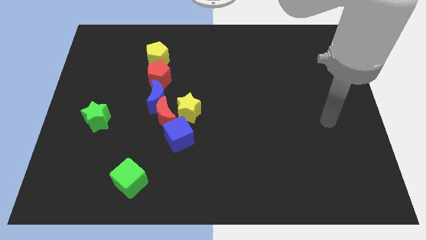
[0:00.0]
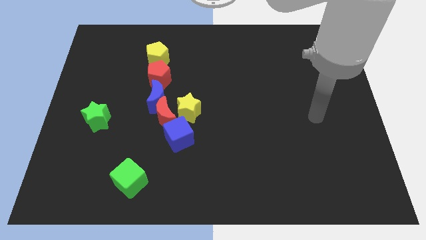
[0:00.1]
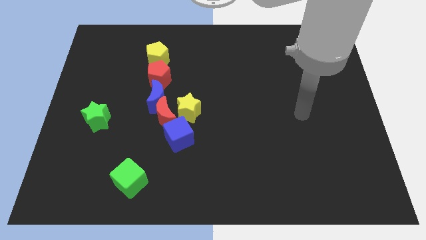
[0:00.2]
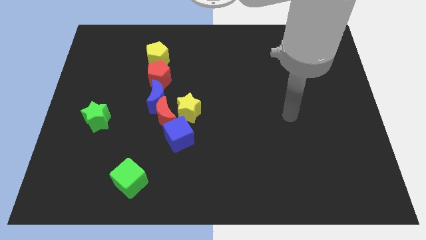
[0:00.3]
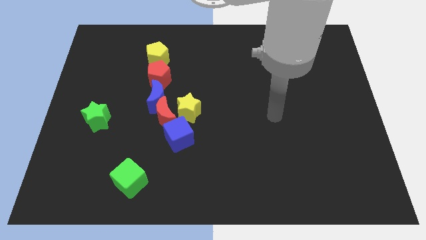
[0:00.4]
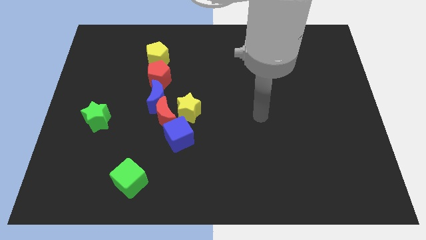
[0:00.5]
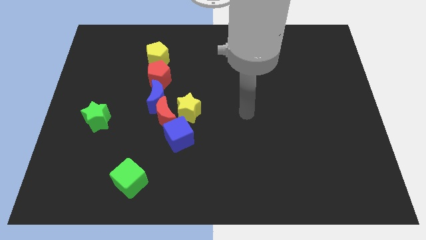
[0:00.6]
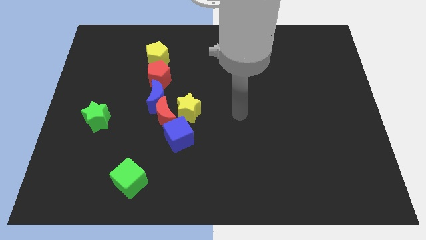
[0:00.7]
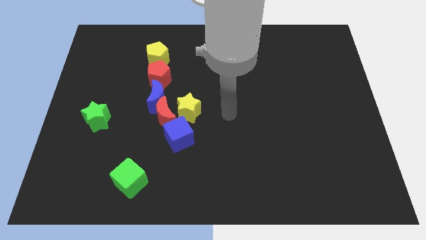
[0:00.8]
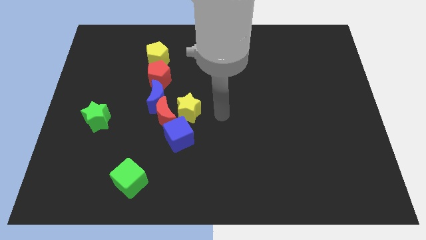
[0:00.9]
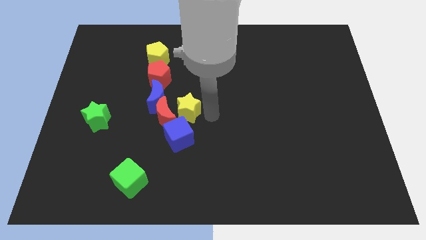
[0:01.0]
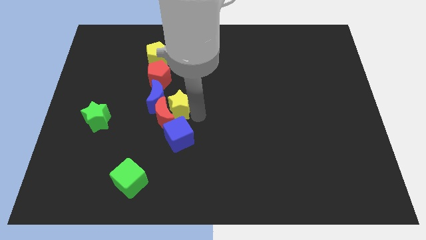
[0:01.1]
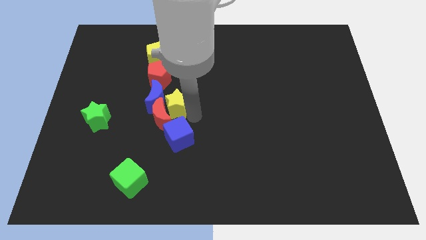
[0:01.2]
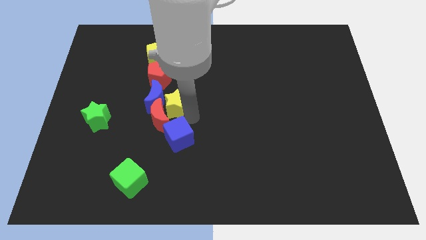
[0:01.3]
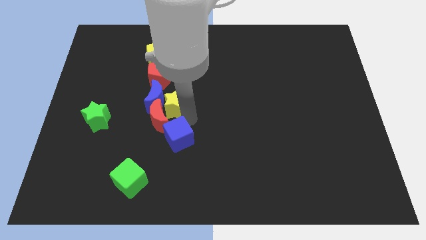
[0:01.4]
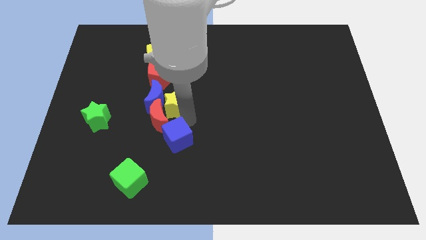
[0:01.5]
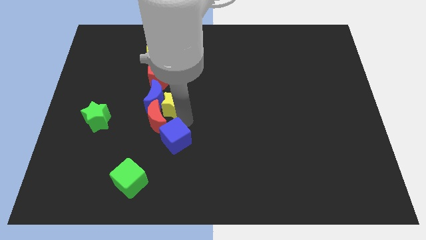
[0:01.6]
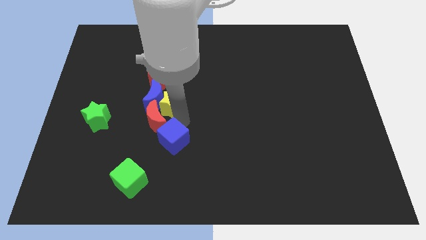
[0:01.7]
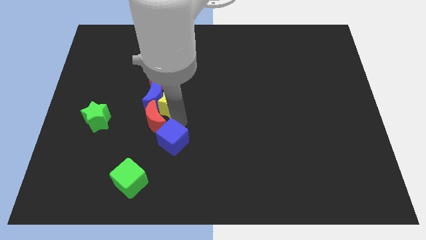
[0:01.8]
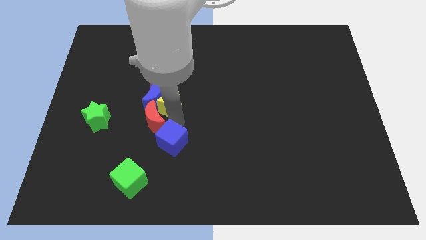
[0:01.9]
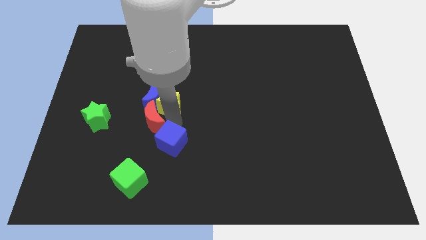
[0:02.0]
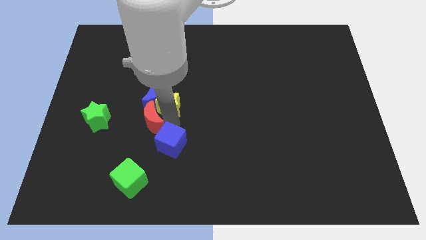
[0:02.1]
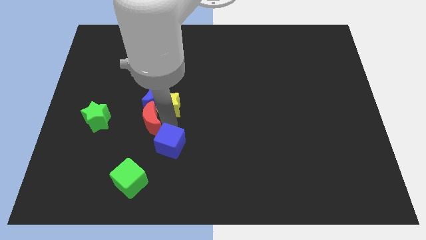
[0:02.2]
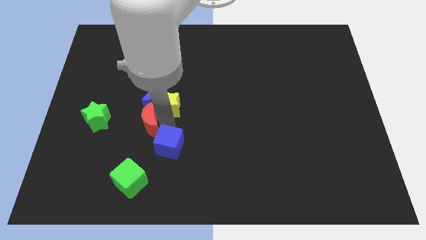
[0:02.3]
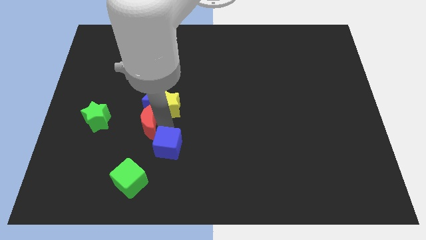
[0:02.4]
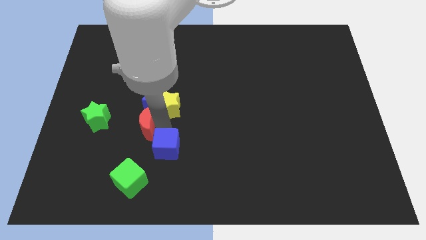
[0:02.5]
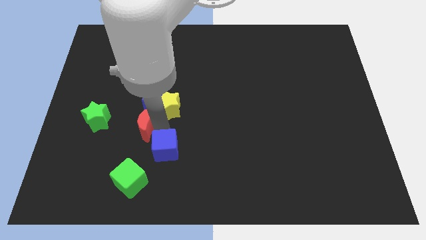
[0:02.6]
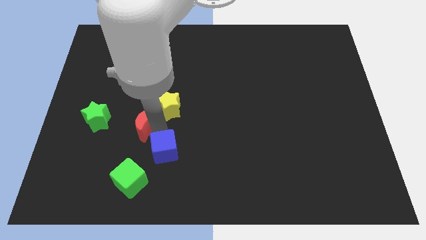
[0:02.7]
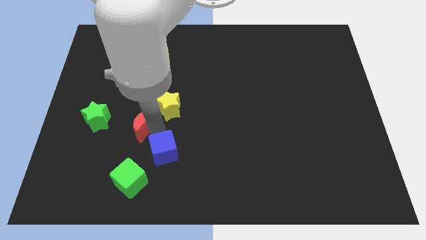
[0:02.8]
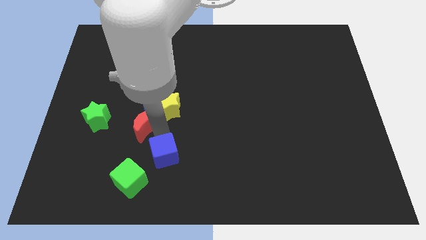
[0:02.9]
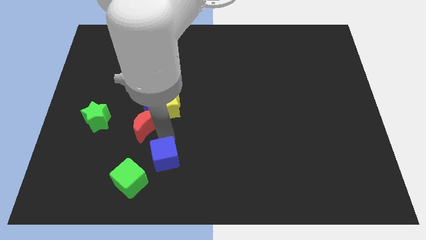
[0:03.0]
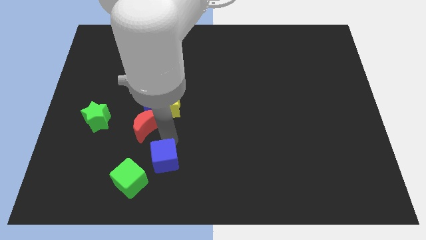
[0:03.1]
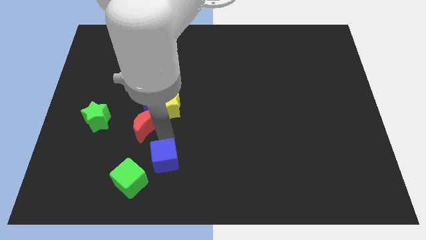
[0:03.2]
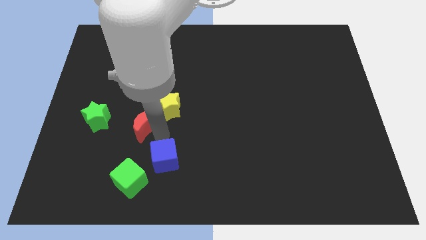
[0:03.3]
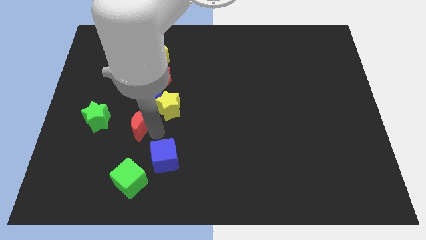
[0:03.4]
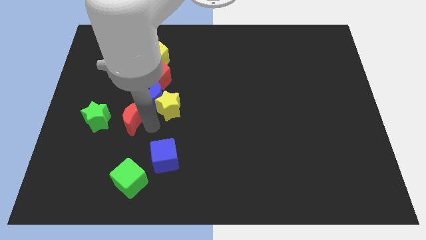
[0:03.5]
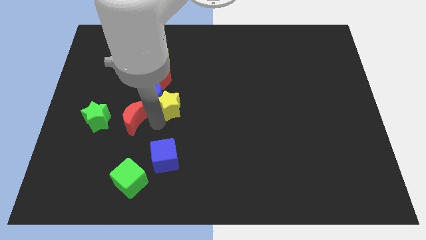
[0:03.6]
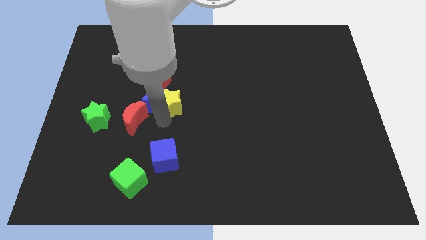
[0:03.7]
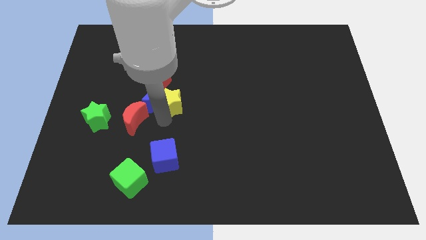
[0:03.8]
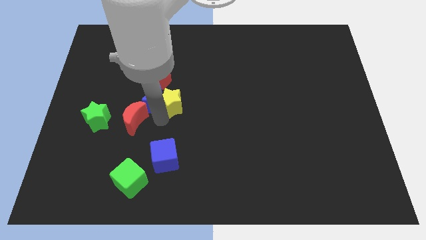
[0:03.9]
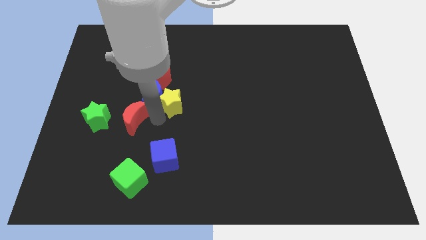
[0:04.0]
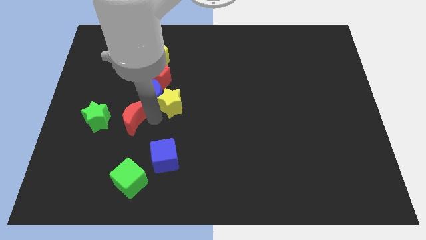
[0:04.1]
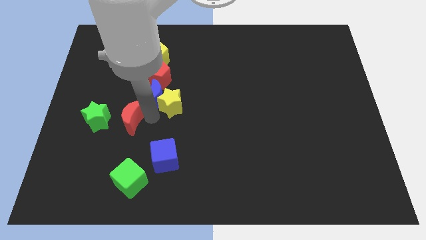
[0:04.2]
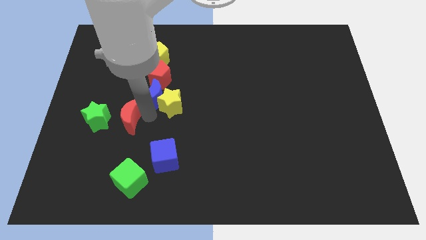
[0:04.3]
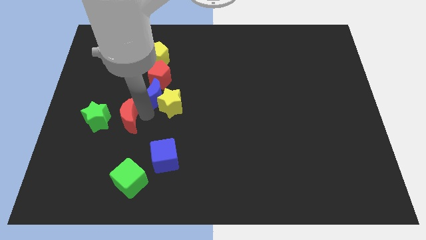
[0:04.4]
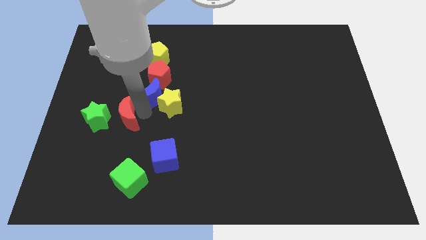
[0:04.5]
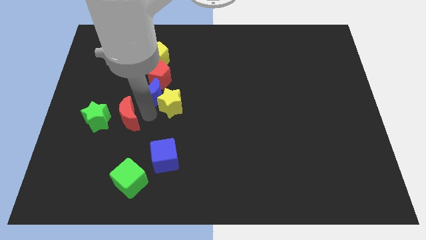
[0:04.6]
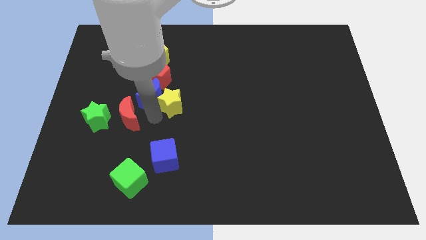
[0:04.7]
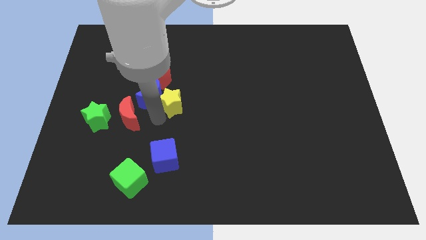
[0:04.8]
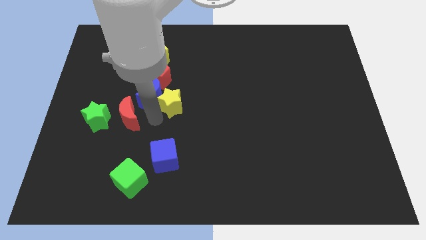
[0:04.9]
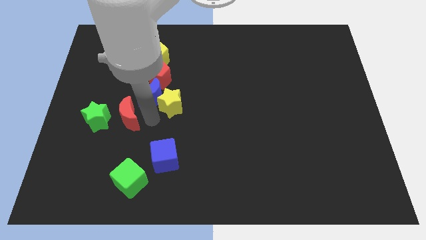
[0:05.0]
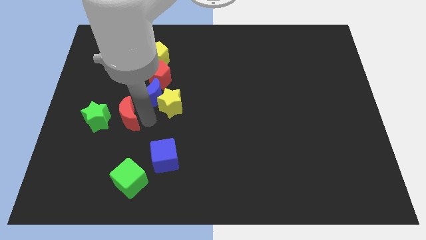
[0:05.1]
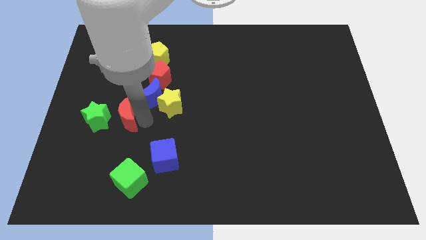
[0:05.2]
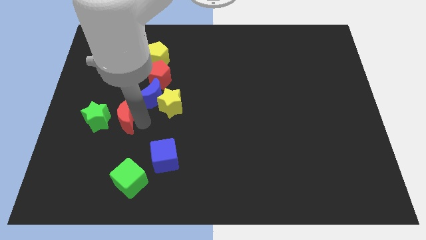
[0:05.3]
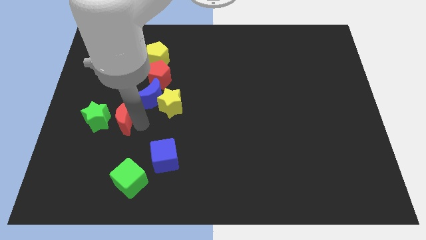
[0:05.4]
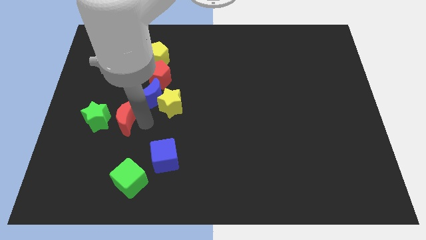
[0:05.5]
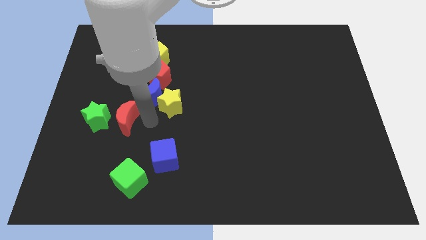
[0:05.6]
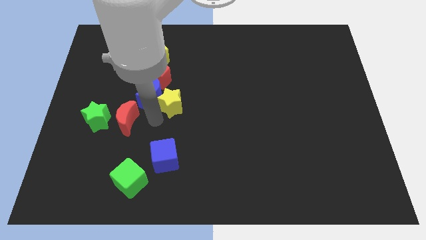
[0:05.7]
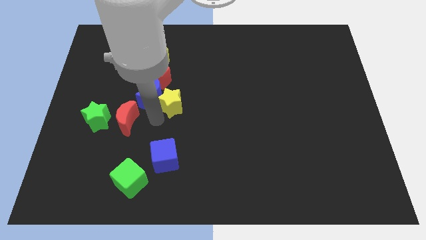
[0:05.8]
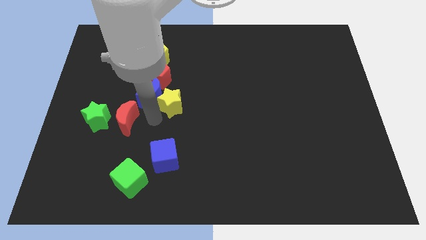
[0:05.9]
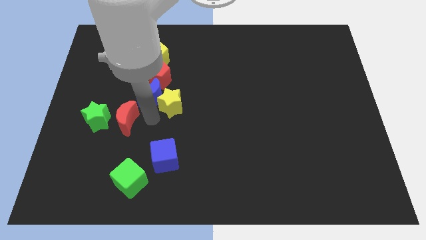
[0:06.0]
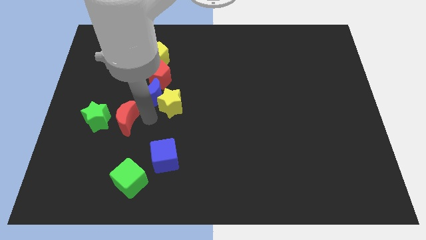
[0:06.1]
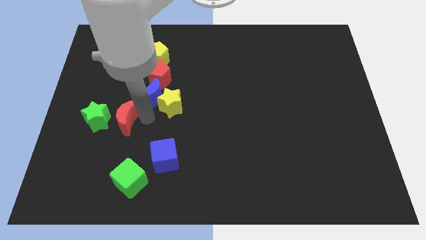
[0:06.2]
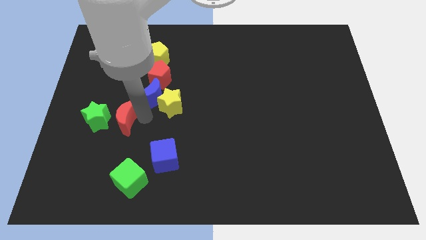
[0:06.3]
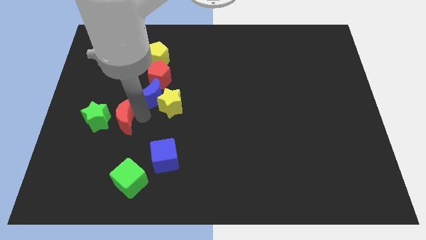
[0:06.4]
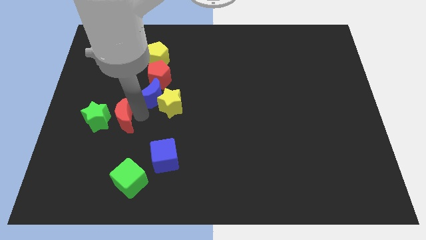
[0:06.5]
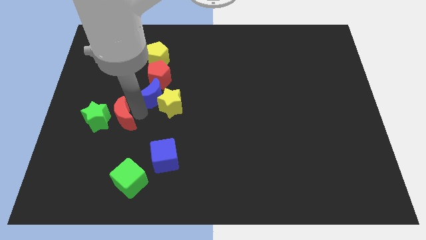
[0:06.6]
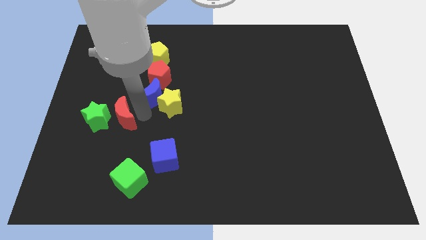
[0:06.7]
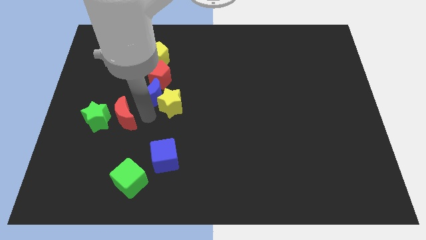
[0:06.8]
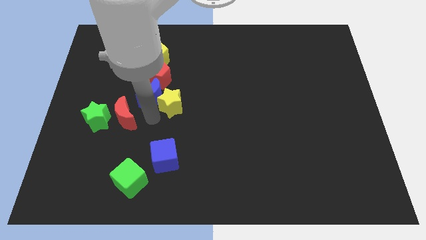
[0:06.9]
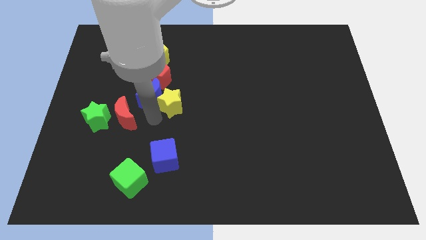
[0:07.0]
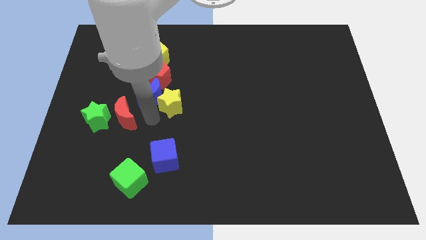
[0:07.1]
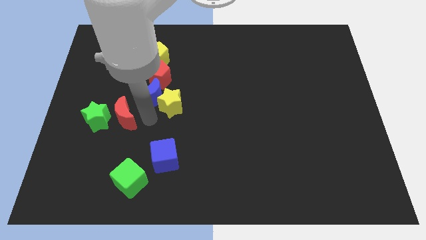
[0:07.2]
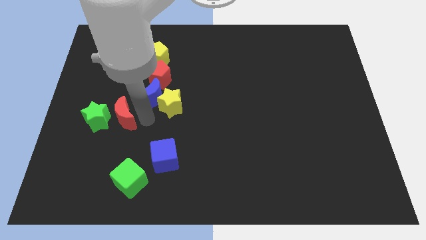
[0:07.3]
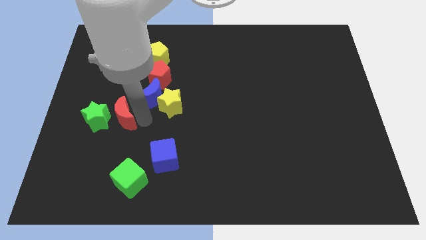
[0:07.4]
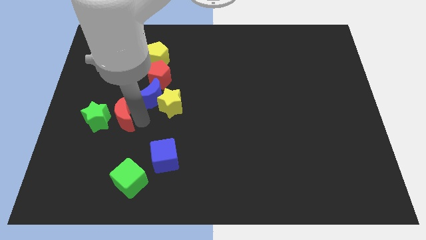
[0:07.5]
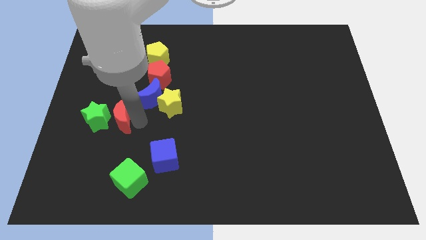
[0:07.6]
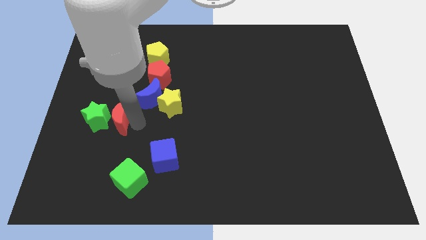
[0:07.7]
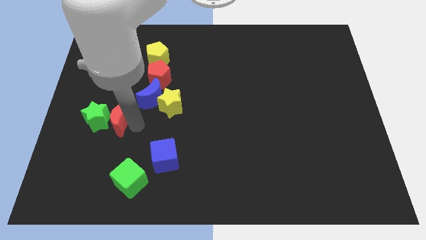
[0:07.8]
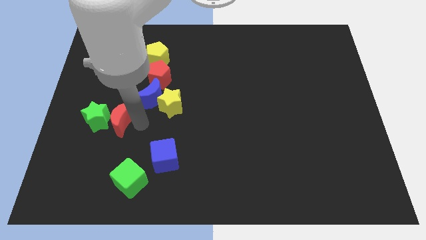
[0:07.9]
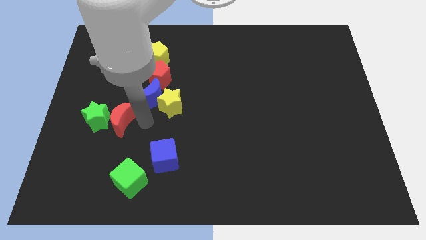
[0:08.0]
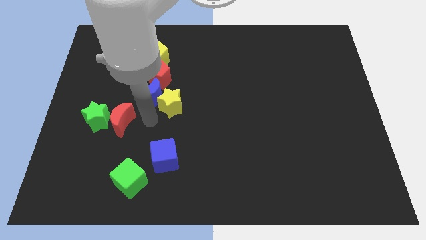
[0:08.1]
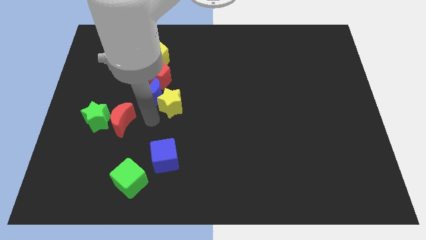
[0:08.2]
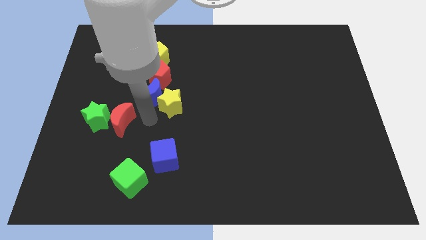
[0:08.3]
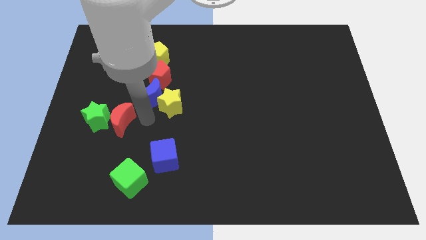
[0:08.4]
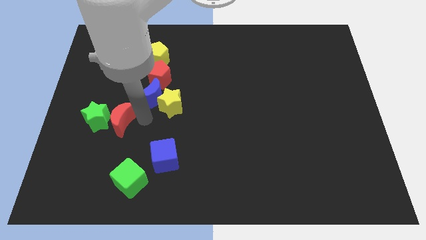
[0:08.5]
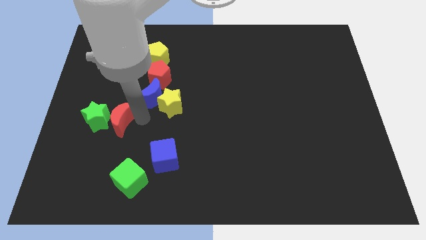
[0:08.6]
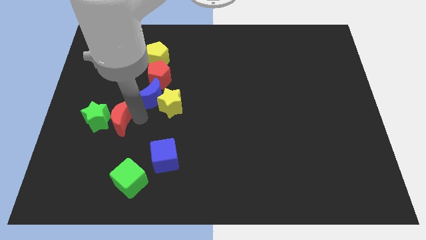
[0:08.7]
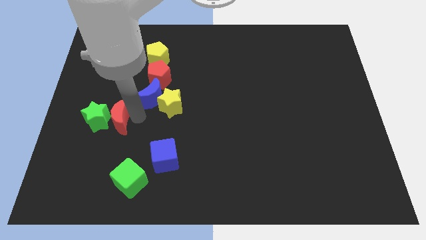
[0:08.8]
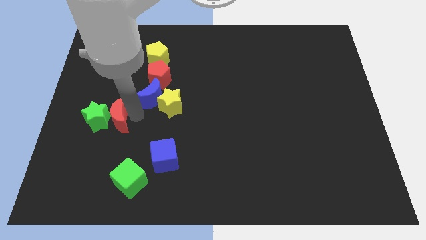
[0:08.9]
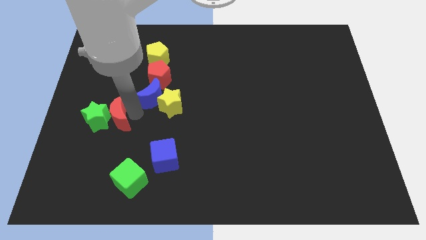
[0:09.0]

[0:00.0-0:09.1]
pull the red moon apart from the group of blocks

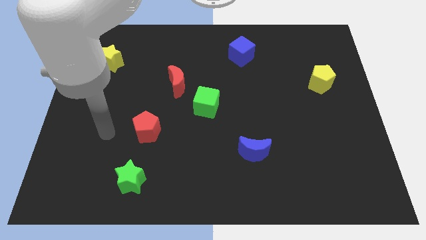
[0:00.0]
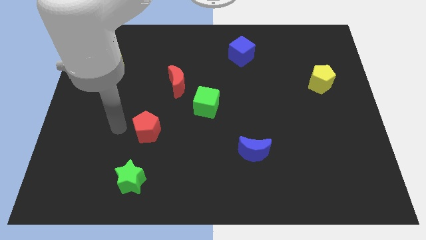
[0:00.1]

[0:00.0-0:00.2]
pull the red moon apart from the green cube
